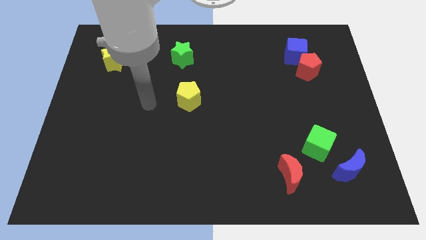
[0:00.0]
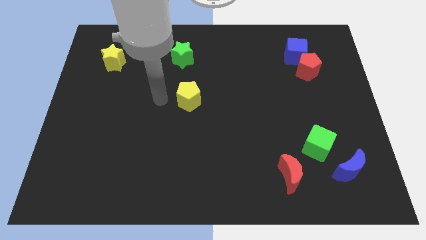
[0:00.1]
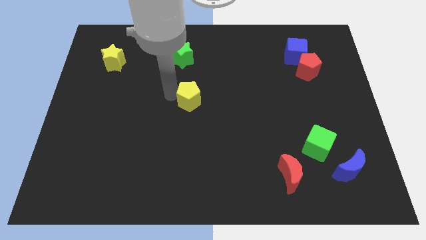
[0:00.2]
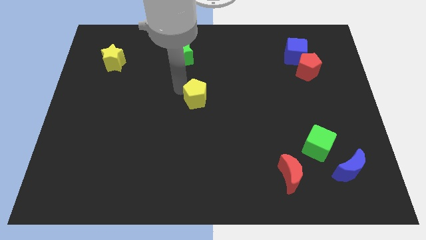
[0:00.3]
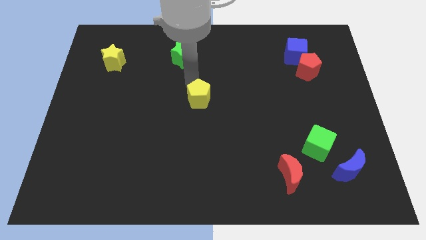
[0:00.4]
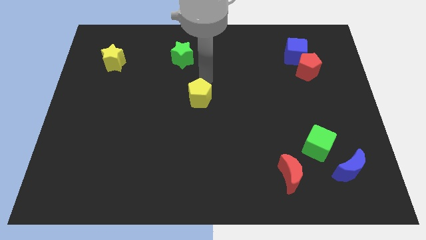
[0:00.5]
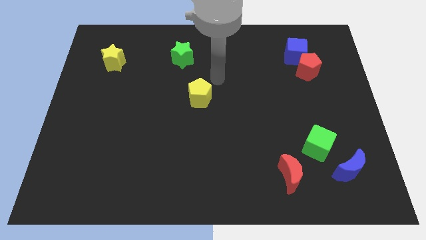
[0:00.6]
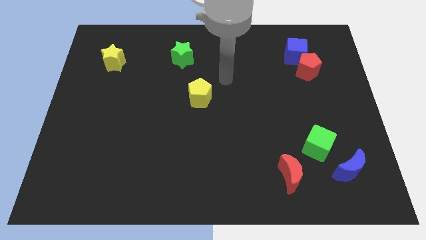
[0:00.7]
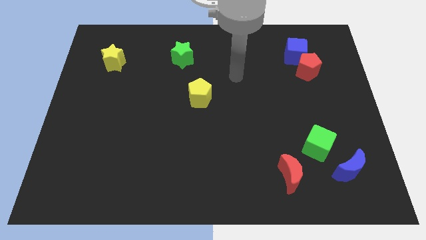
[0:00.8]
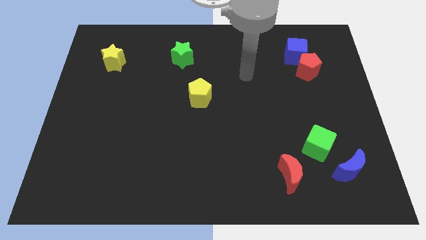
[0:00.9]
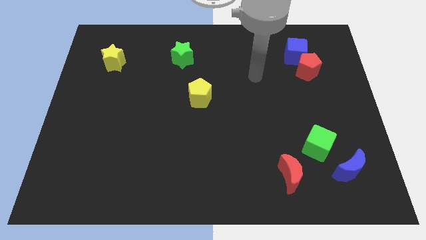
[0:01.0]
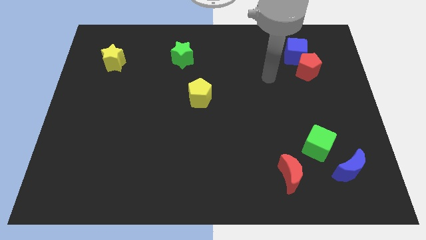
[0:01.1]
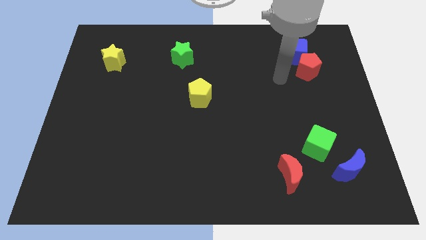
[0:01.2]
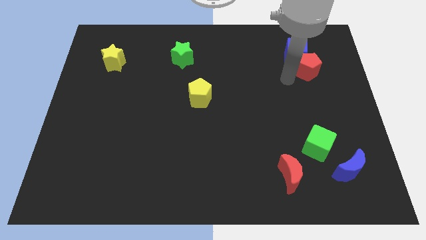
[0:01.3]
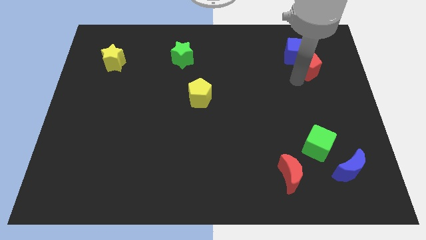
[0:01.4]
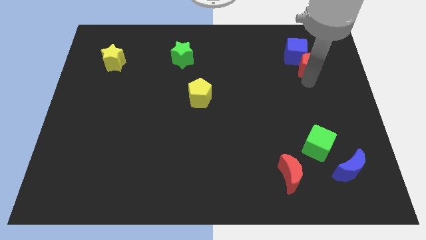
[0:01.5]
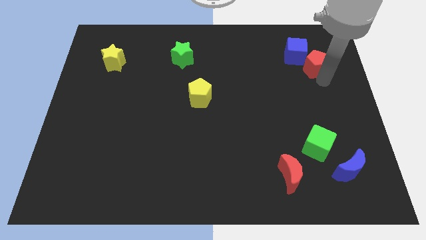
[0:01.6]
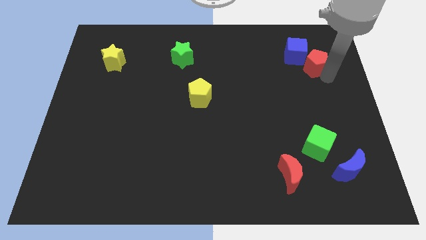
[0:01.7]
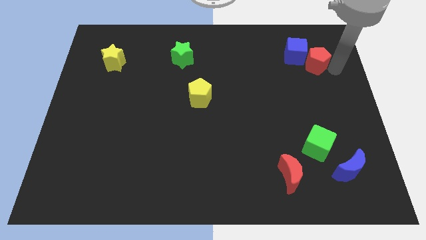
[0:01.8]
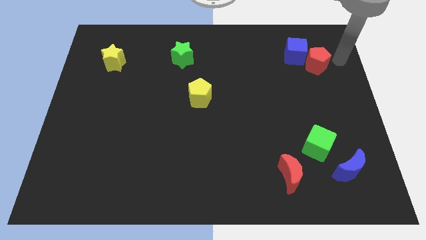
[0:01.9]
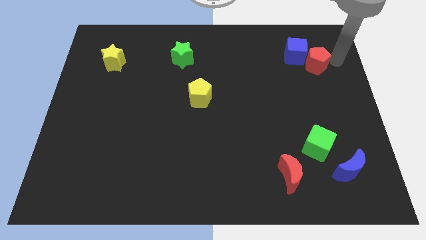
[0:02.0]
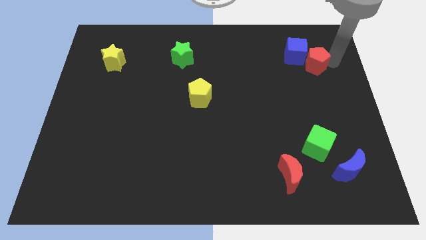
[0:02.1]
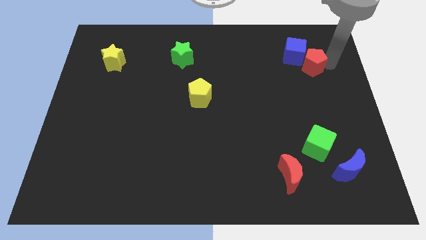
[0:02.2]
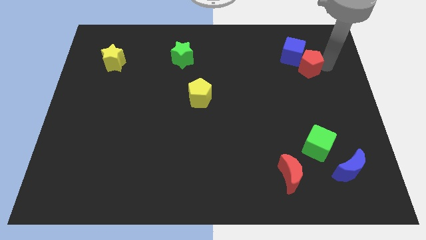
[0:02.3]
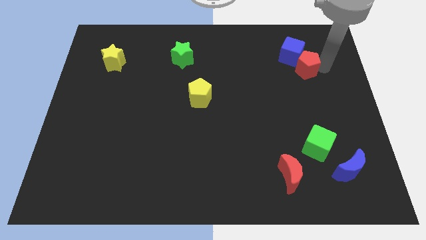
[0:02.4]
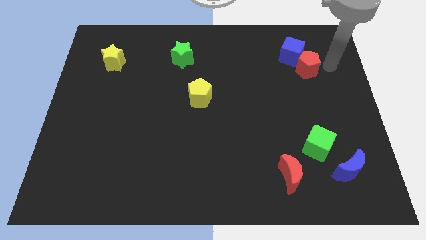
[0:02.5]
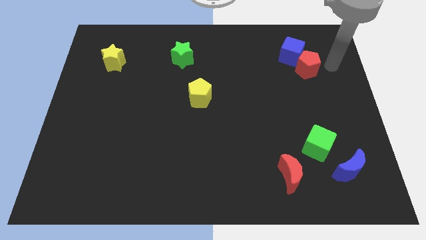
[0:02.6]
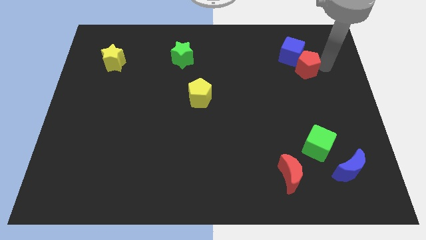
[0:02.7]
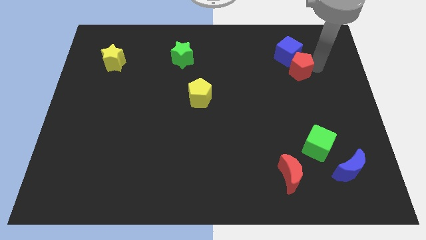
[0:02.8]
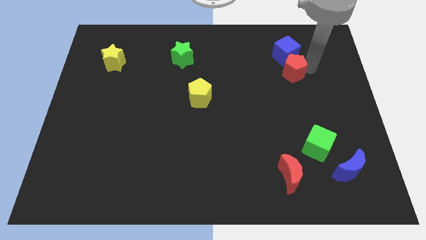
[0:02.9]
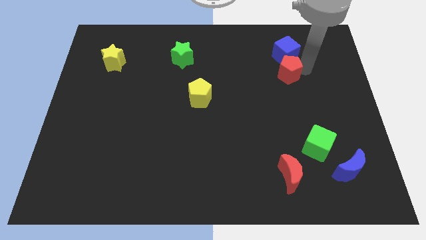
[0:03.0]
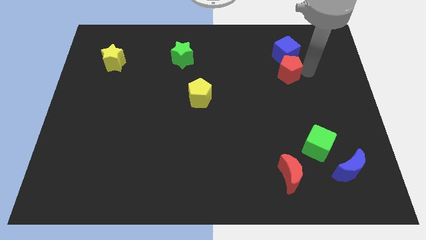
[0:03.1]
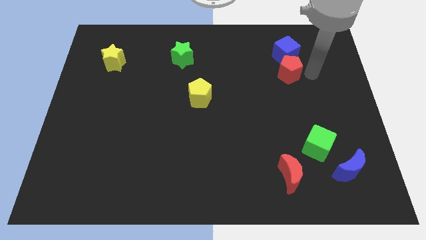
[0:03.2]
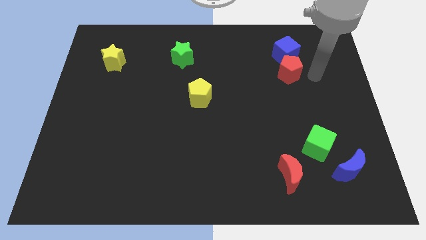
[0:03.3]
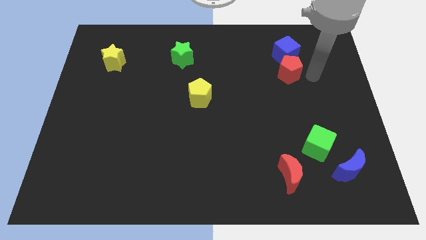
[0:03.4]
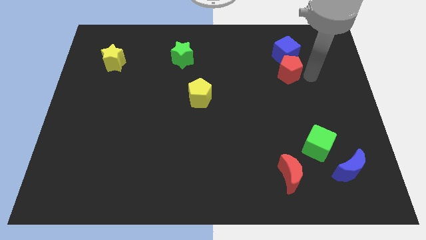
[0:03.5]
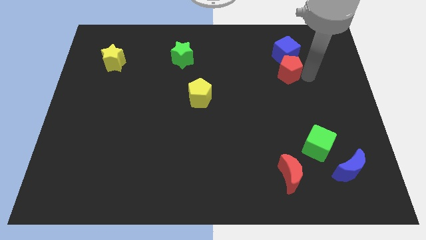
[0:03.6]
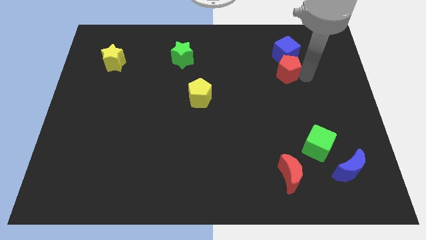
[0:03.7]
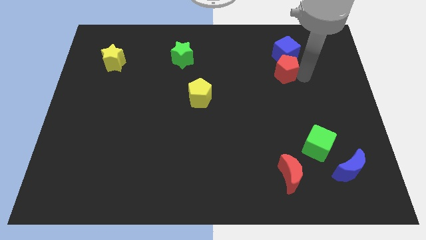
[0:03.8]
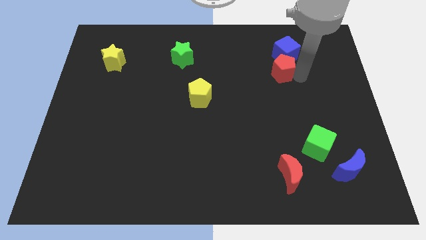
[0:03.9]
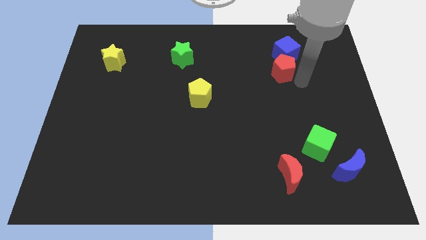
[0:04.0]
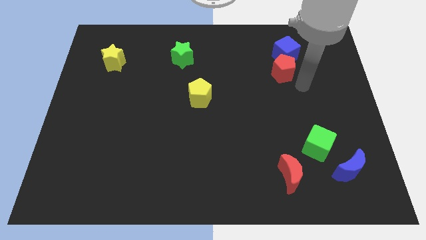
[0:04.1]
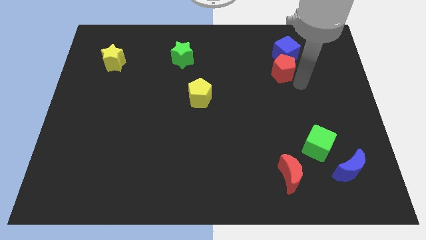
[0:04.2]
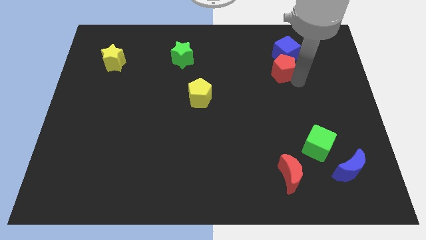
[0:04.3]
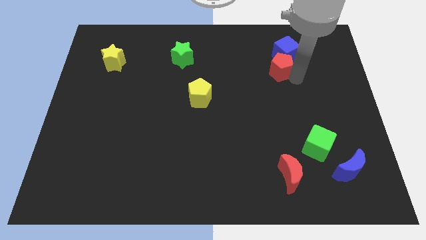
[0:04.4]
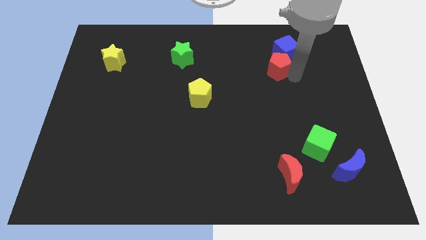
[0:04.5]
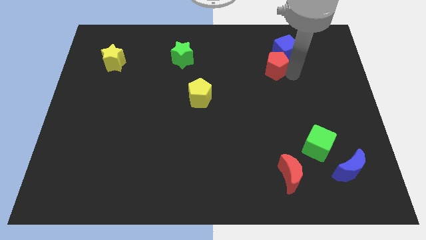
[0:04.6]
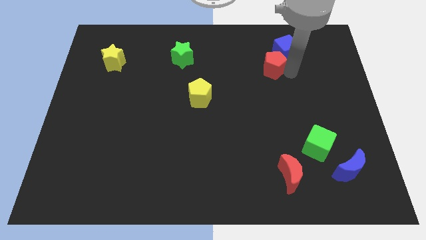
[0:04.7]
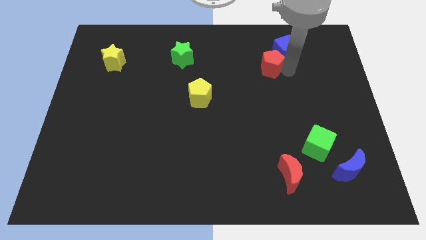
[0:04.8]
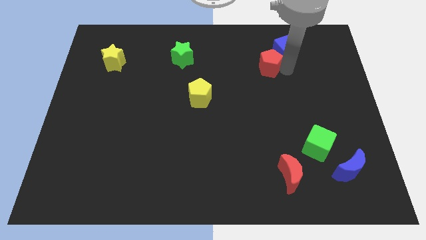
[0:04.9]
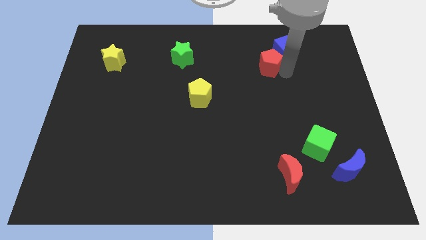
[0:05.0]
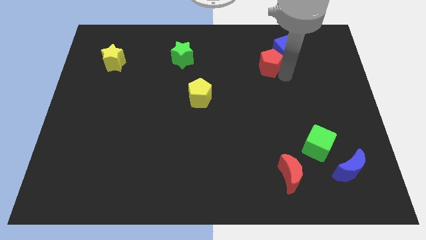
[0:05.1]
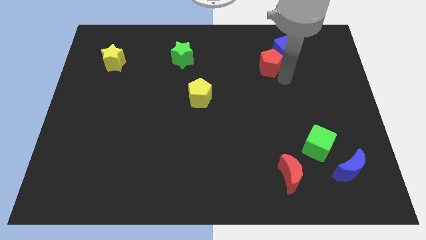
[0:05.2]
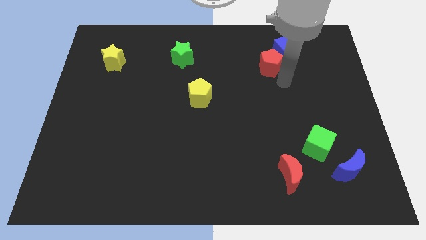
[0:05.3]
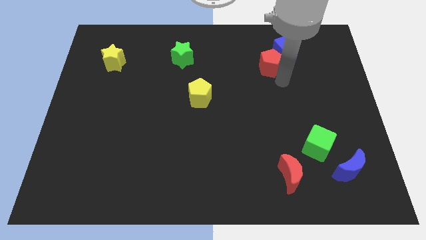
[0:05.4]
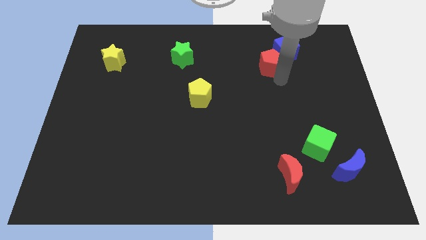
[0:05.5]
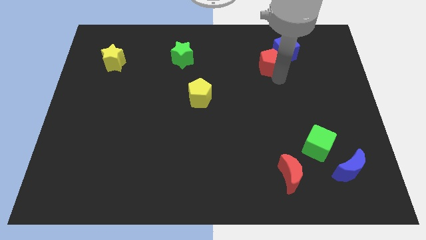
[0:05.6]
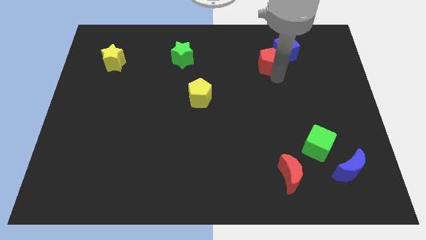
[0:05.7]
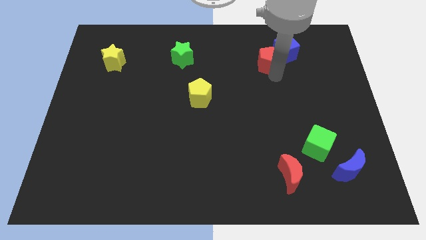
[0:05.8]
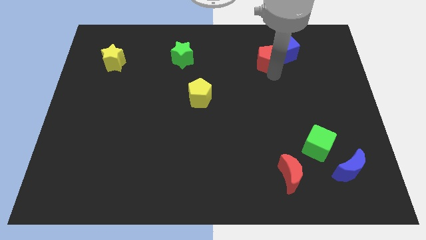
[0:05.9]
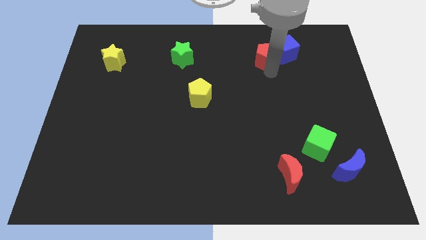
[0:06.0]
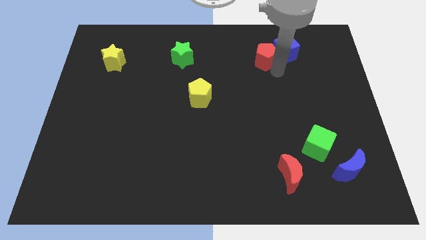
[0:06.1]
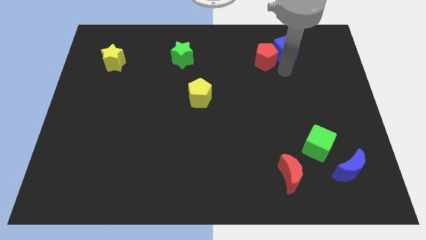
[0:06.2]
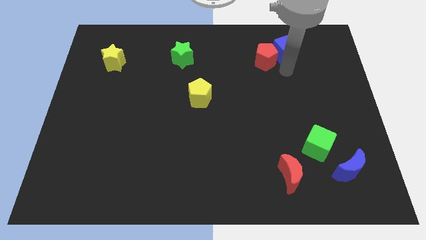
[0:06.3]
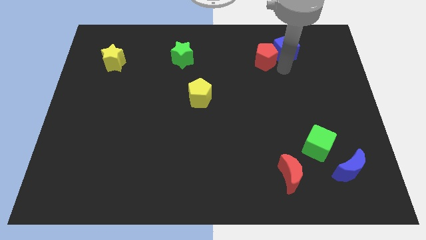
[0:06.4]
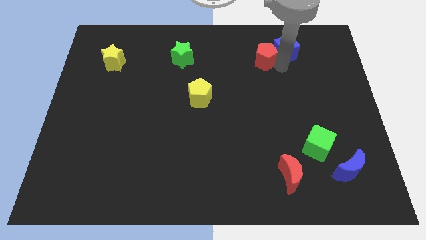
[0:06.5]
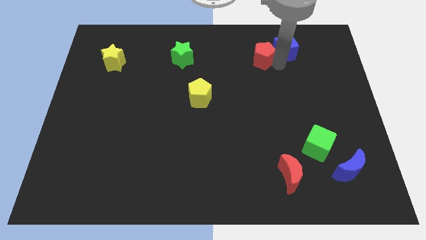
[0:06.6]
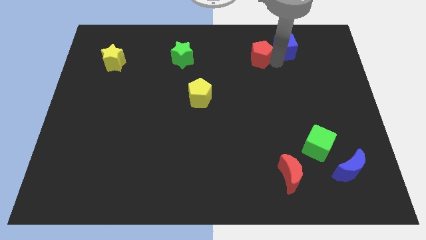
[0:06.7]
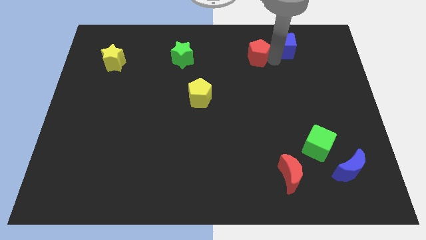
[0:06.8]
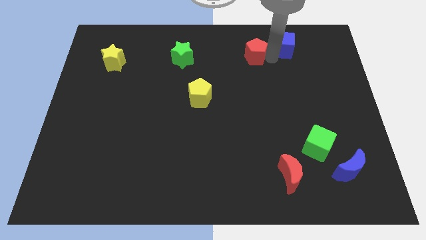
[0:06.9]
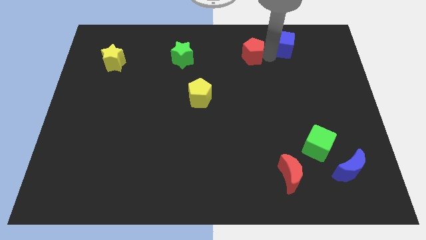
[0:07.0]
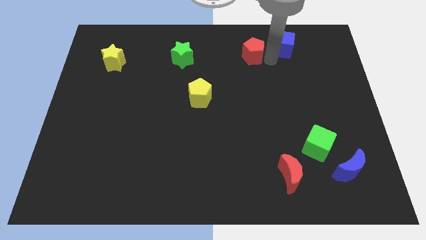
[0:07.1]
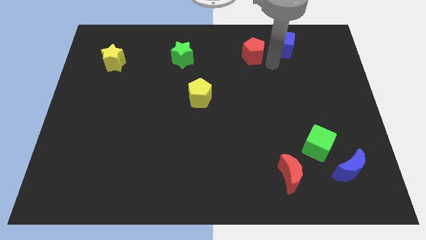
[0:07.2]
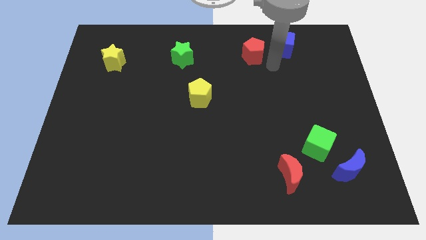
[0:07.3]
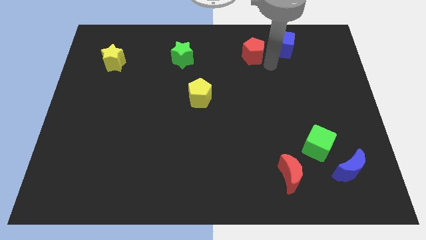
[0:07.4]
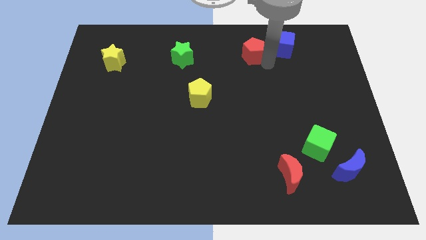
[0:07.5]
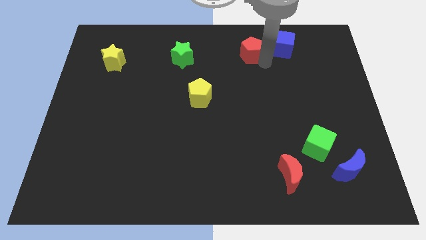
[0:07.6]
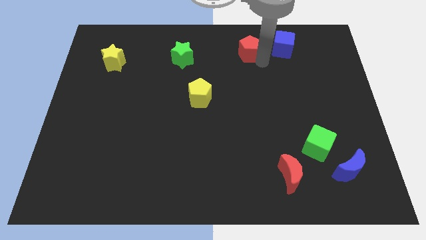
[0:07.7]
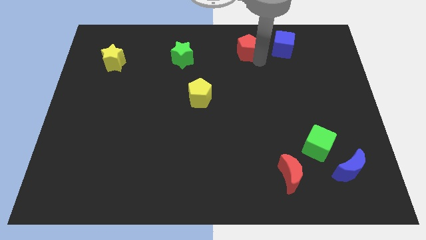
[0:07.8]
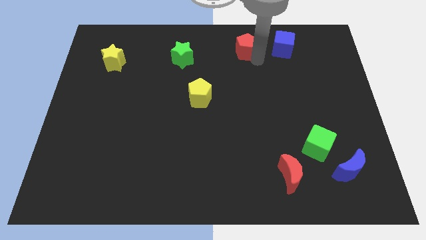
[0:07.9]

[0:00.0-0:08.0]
put the red pentagon to the top side
